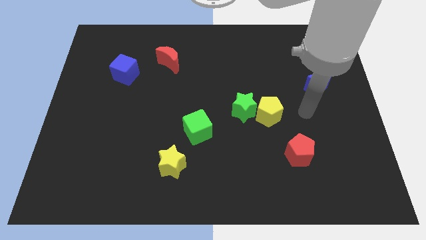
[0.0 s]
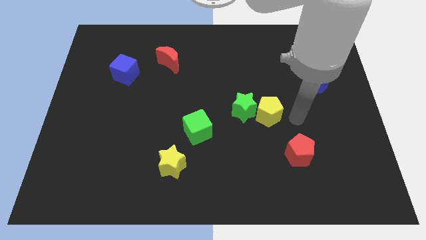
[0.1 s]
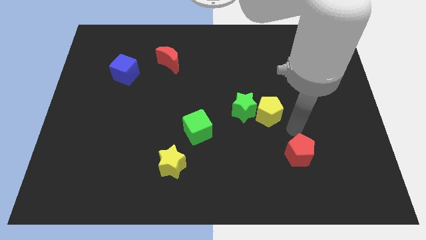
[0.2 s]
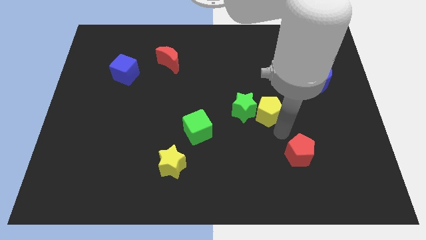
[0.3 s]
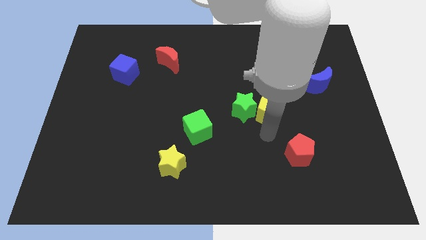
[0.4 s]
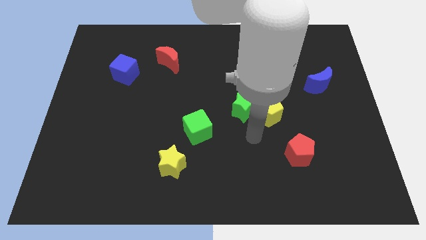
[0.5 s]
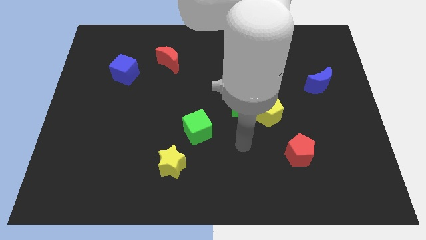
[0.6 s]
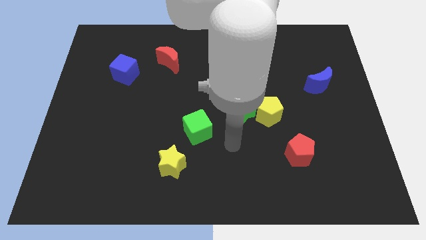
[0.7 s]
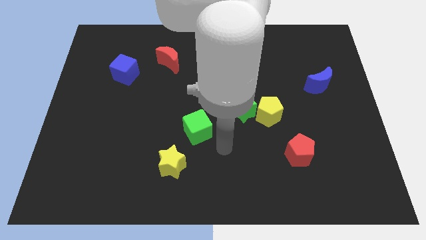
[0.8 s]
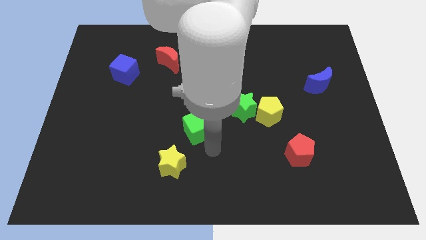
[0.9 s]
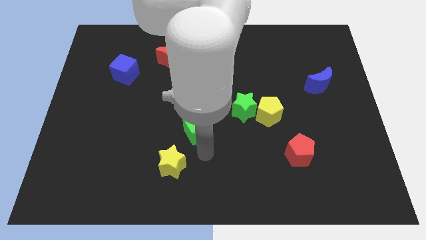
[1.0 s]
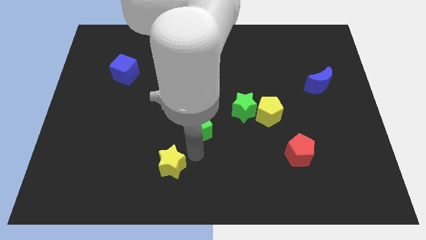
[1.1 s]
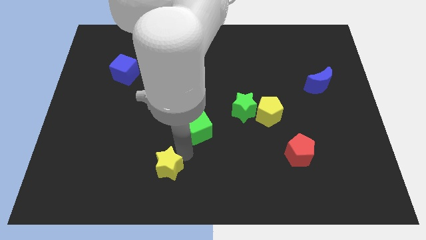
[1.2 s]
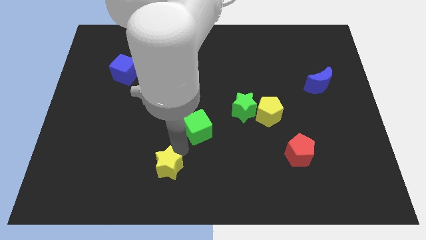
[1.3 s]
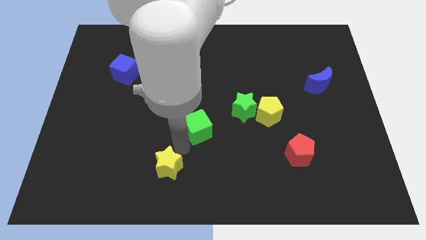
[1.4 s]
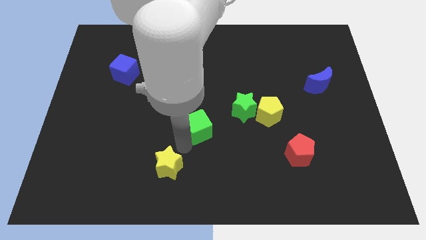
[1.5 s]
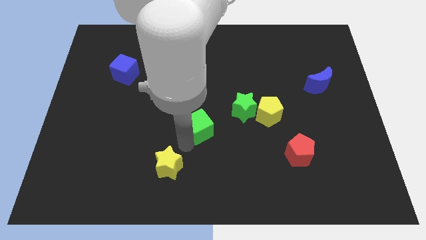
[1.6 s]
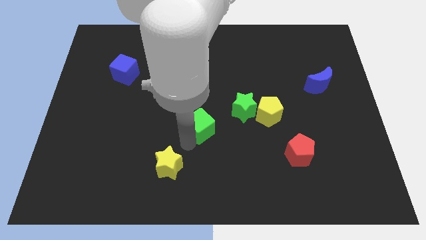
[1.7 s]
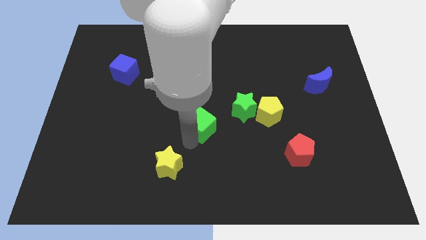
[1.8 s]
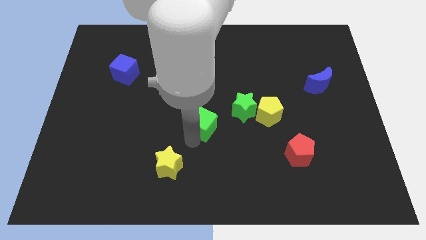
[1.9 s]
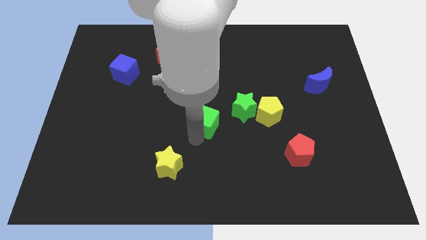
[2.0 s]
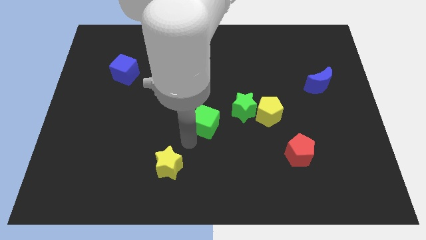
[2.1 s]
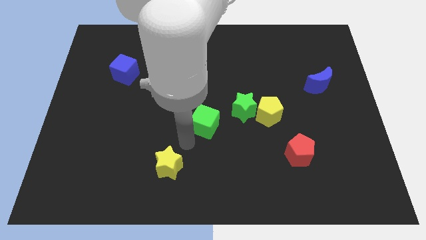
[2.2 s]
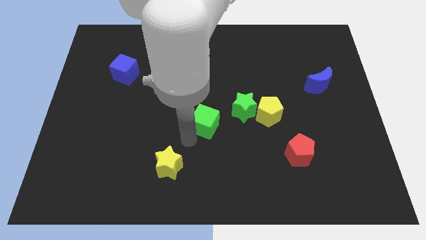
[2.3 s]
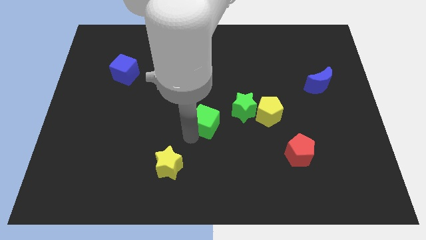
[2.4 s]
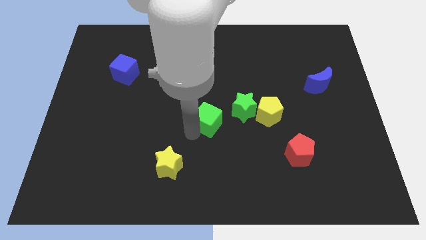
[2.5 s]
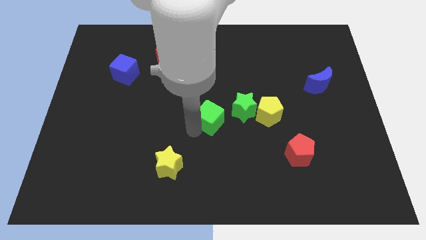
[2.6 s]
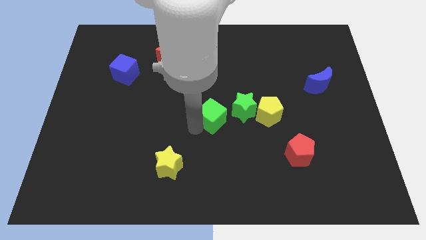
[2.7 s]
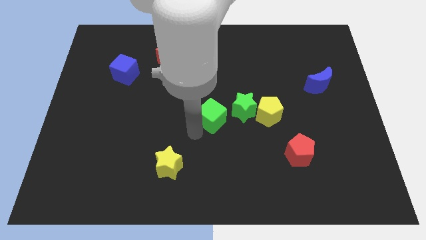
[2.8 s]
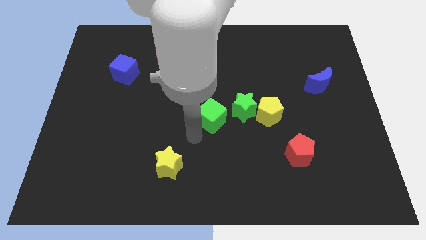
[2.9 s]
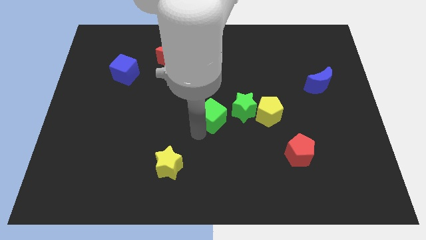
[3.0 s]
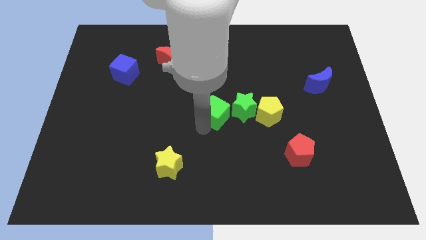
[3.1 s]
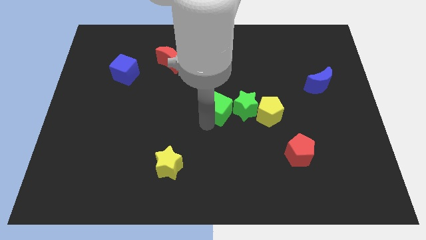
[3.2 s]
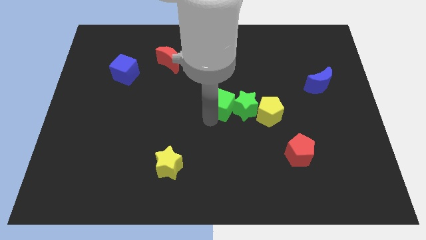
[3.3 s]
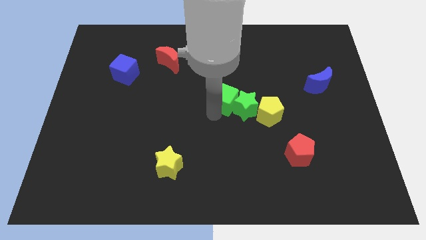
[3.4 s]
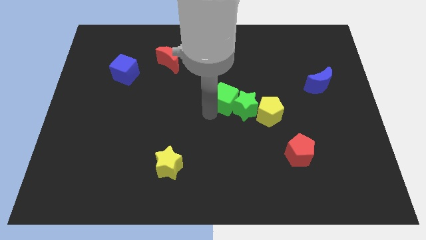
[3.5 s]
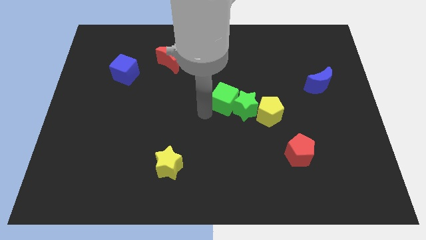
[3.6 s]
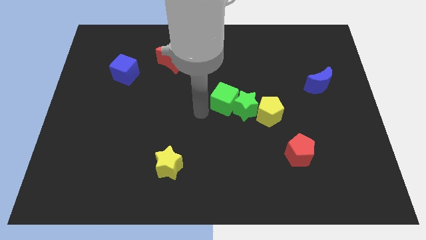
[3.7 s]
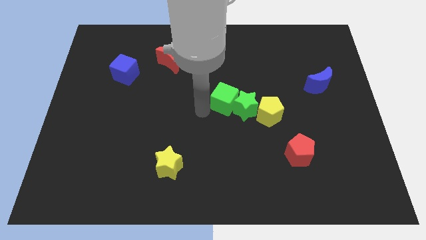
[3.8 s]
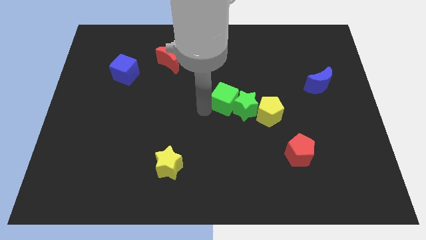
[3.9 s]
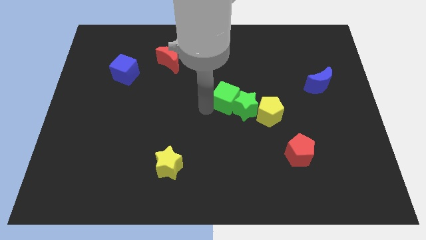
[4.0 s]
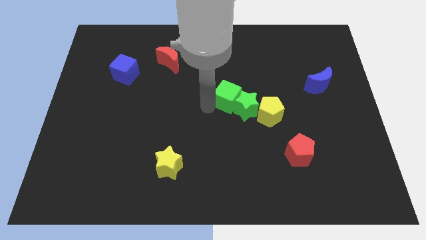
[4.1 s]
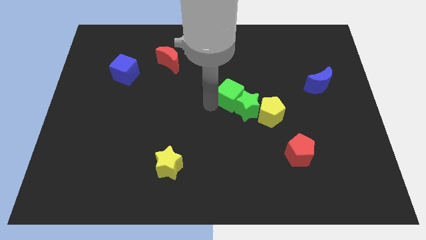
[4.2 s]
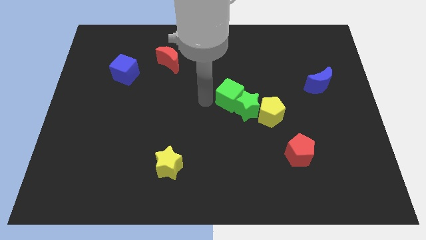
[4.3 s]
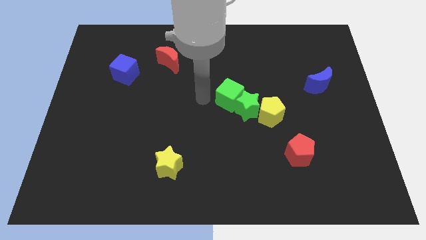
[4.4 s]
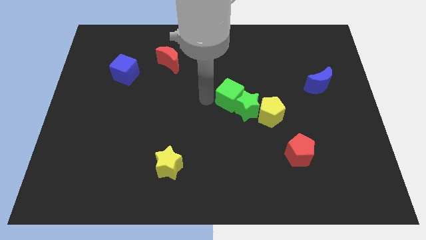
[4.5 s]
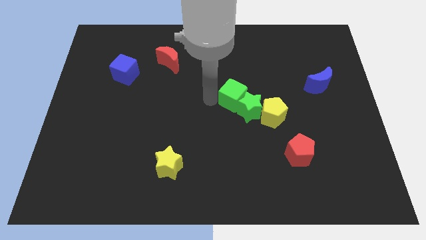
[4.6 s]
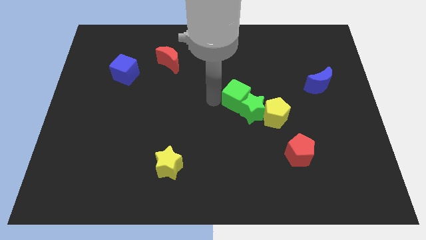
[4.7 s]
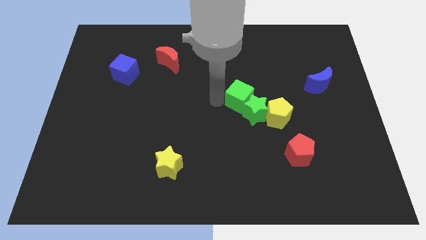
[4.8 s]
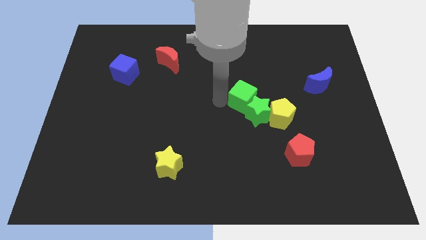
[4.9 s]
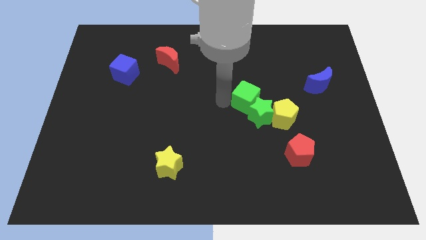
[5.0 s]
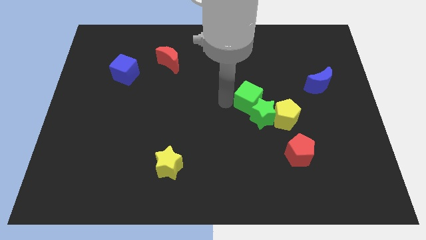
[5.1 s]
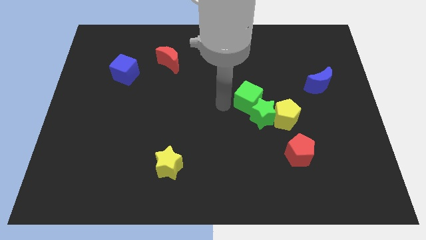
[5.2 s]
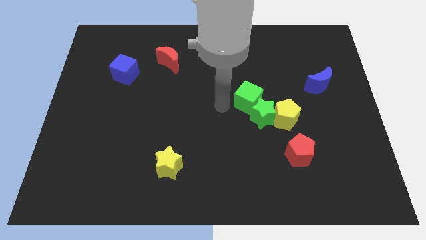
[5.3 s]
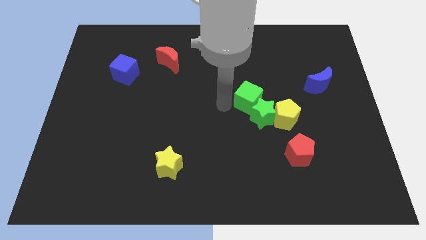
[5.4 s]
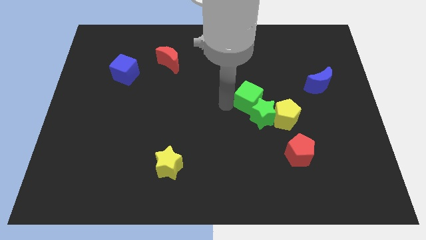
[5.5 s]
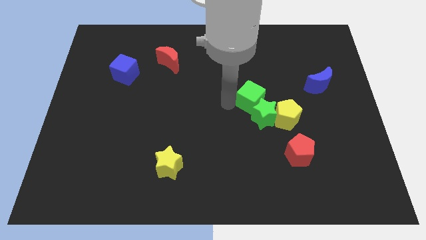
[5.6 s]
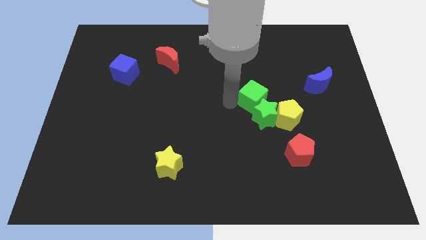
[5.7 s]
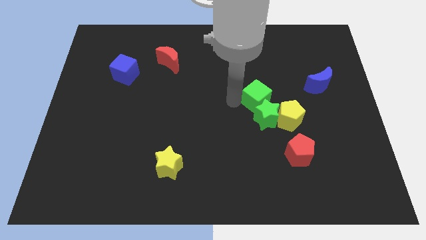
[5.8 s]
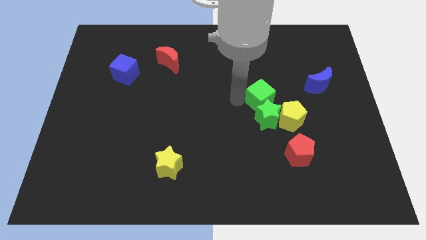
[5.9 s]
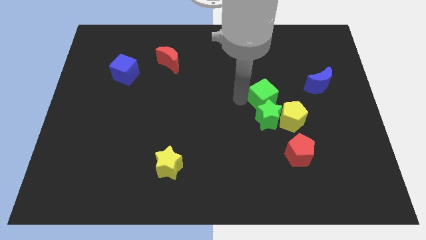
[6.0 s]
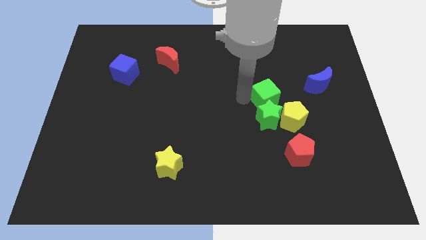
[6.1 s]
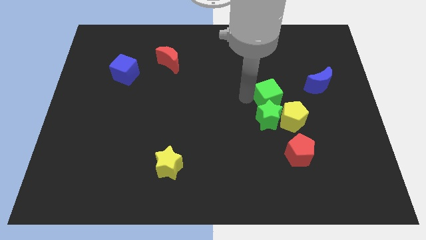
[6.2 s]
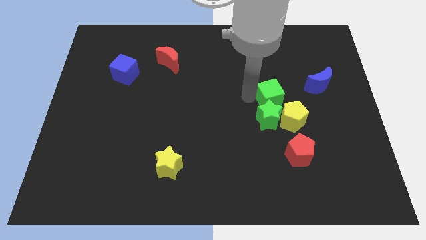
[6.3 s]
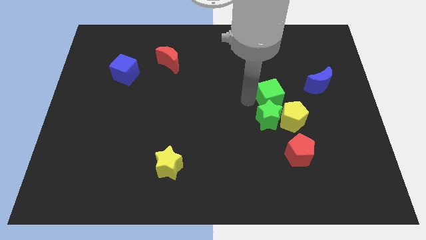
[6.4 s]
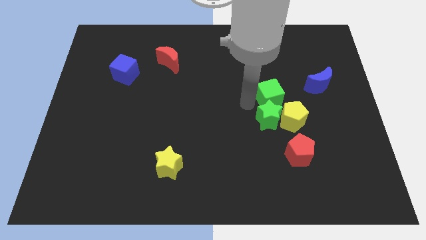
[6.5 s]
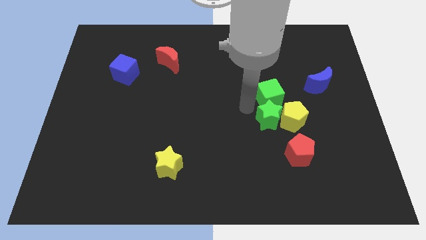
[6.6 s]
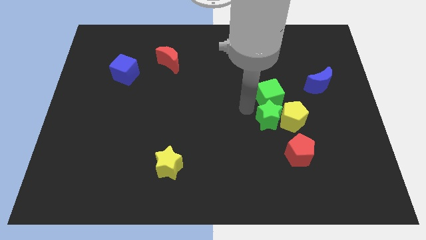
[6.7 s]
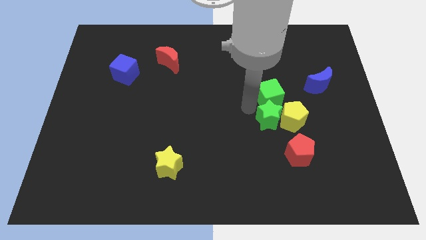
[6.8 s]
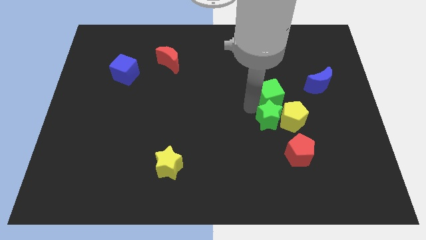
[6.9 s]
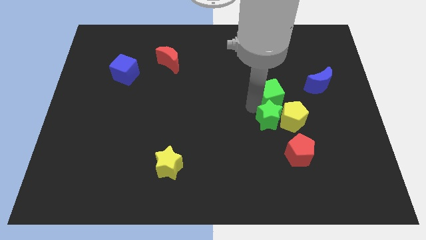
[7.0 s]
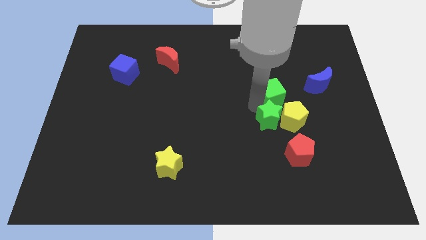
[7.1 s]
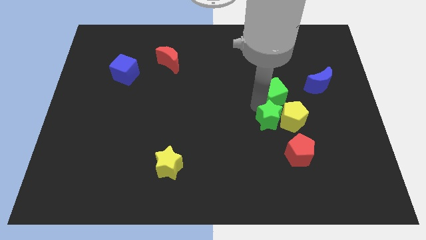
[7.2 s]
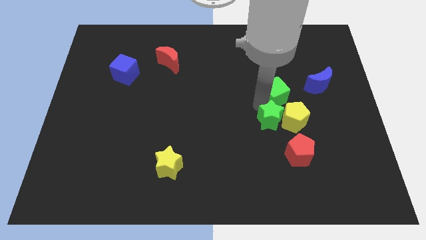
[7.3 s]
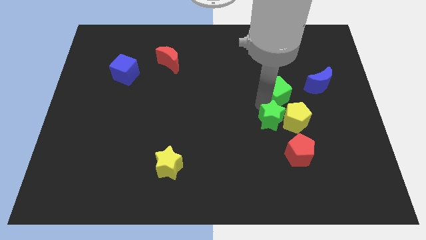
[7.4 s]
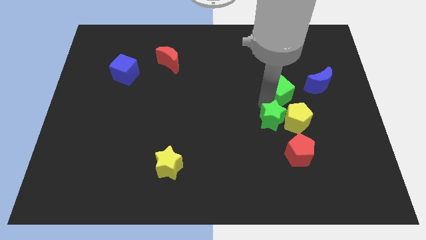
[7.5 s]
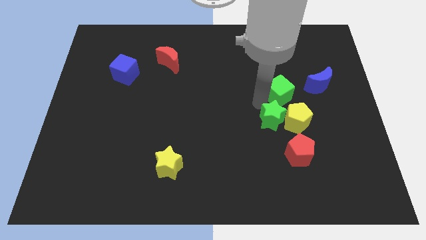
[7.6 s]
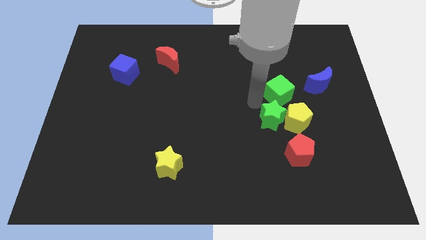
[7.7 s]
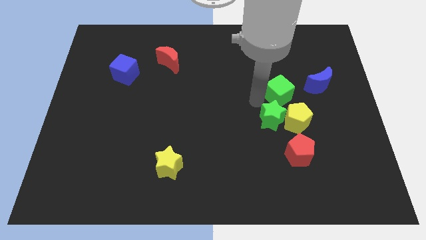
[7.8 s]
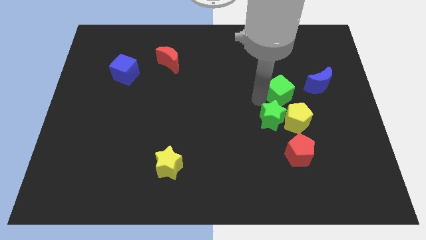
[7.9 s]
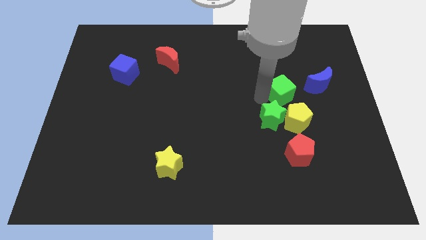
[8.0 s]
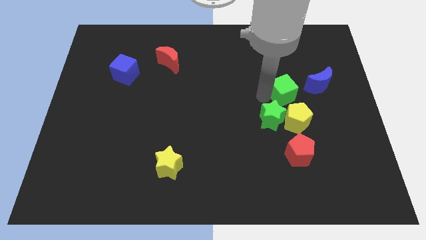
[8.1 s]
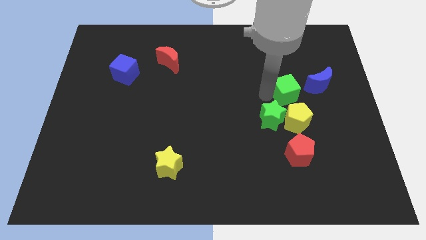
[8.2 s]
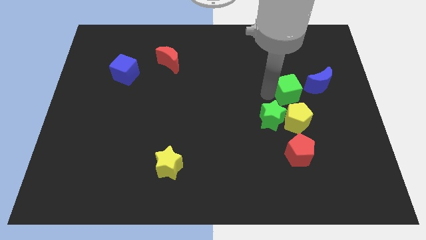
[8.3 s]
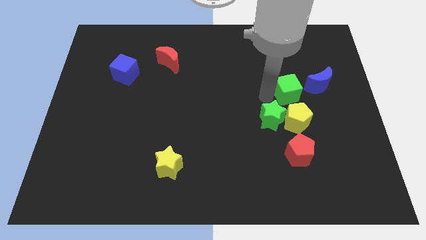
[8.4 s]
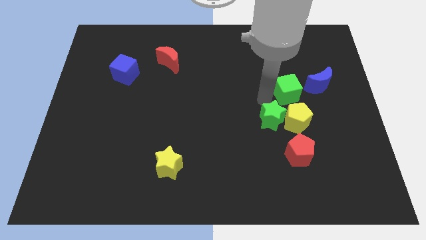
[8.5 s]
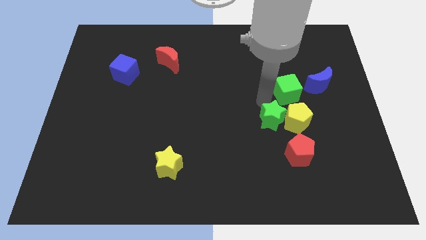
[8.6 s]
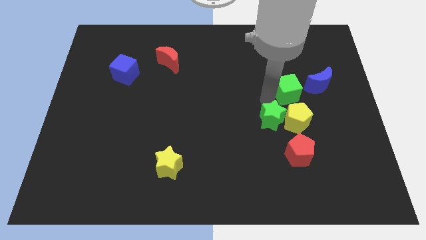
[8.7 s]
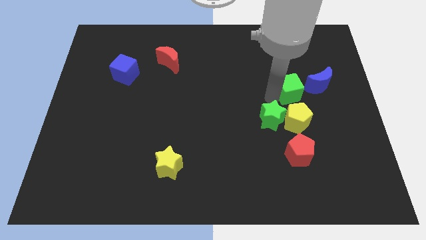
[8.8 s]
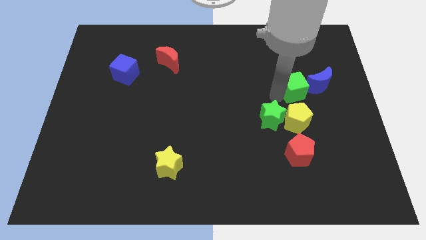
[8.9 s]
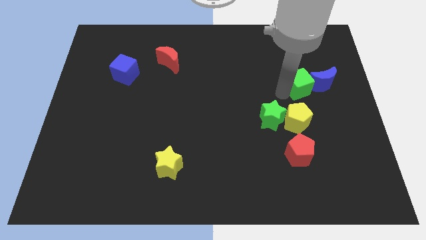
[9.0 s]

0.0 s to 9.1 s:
move the green cube to the blue moon
